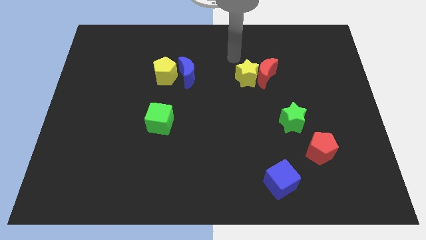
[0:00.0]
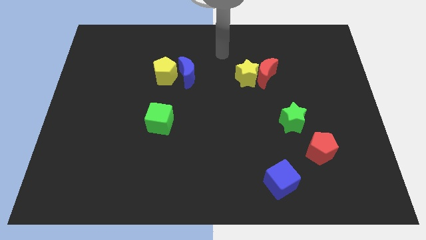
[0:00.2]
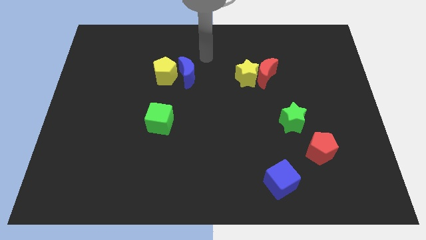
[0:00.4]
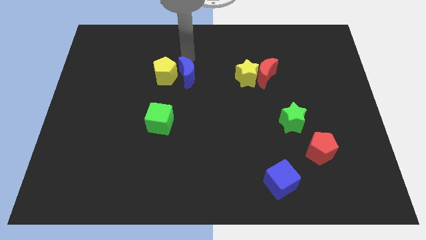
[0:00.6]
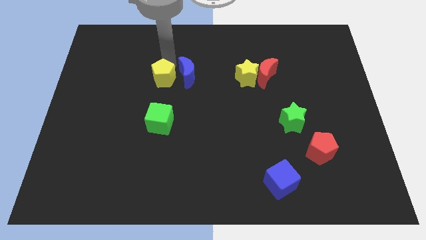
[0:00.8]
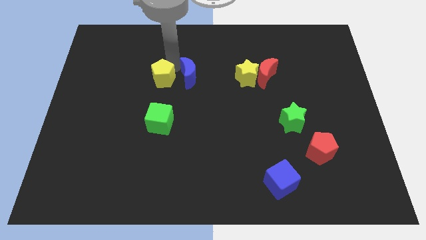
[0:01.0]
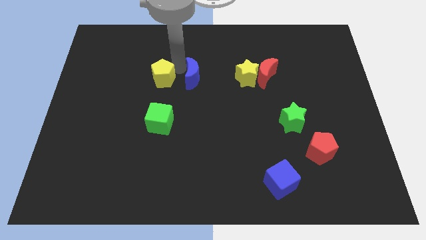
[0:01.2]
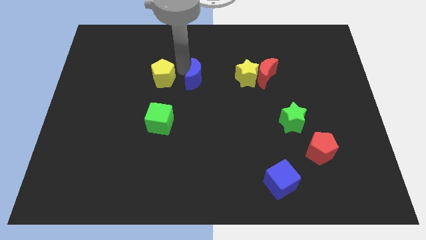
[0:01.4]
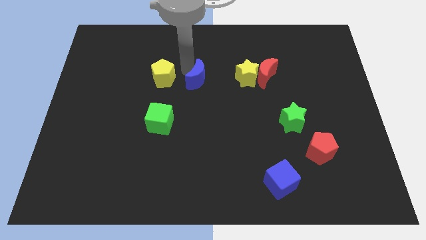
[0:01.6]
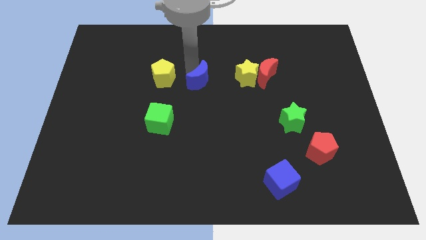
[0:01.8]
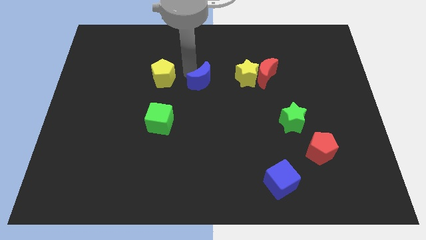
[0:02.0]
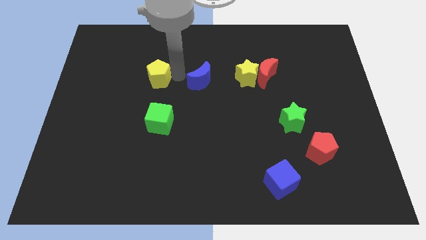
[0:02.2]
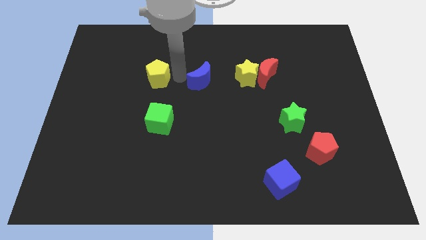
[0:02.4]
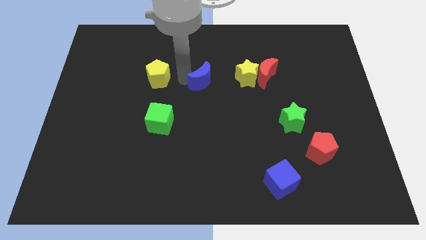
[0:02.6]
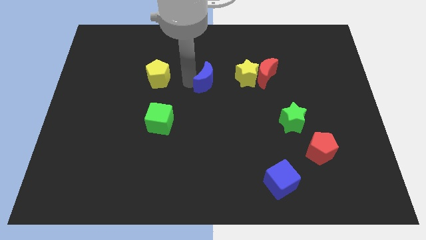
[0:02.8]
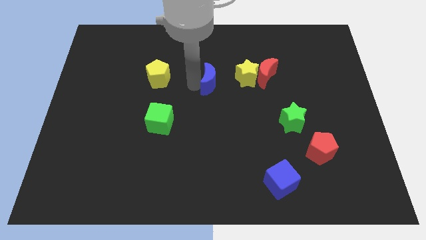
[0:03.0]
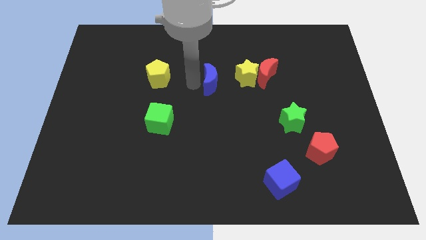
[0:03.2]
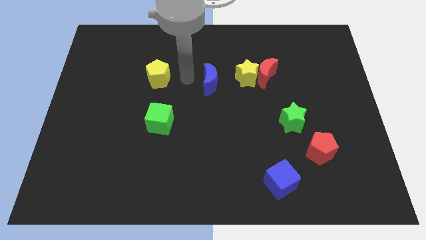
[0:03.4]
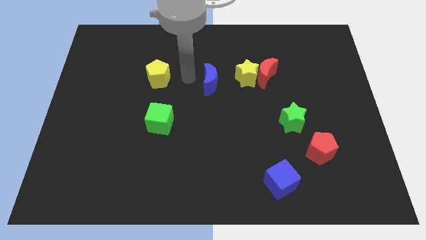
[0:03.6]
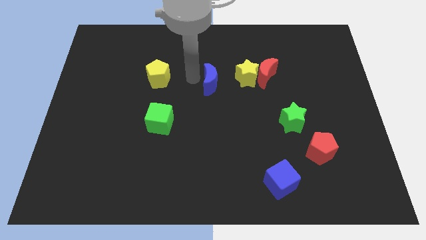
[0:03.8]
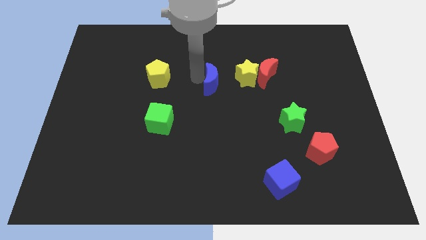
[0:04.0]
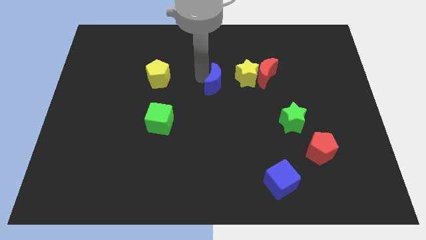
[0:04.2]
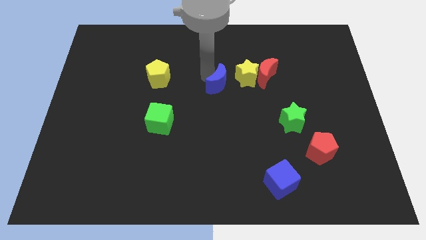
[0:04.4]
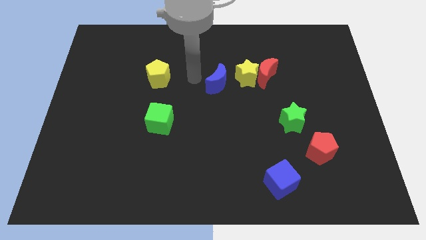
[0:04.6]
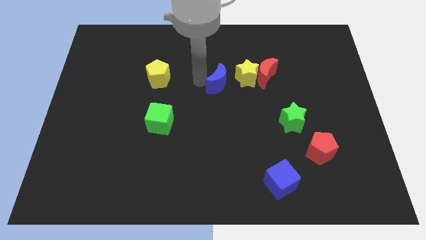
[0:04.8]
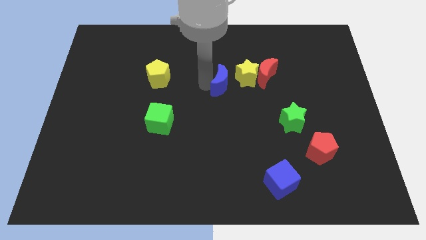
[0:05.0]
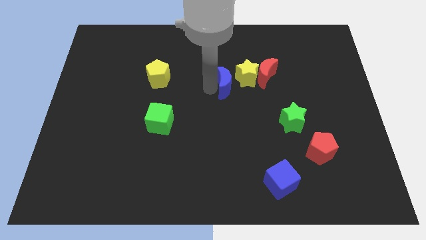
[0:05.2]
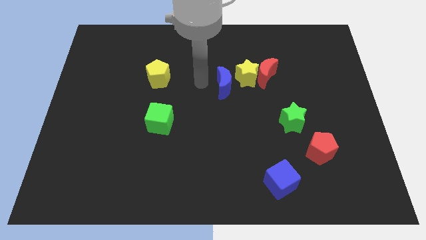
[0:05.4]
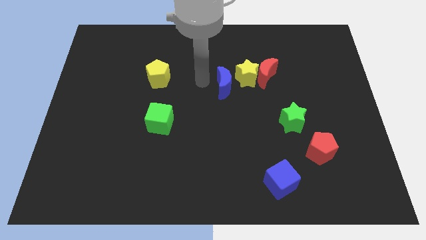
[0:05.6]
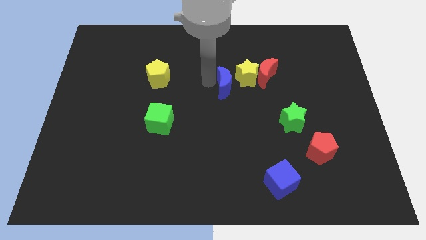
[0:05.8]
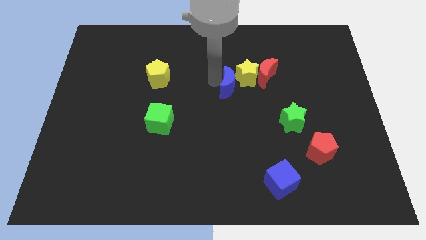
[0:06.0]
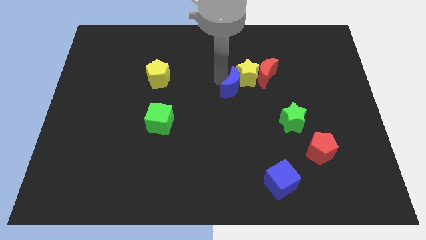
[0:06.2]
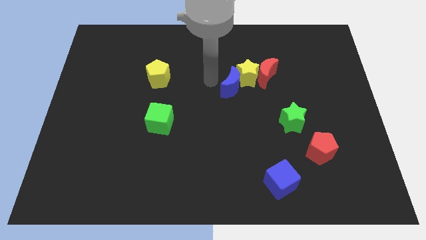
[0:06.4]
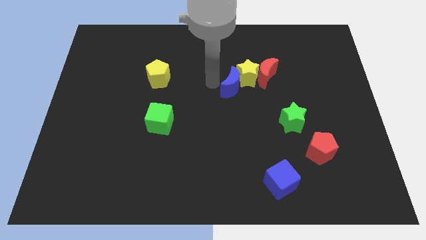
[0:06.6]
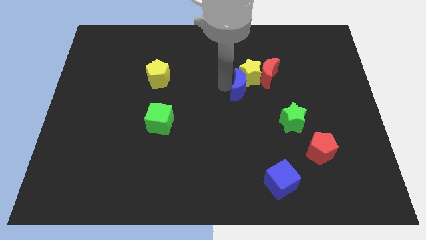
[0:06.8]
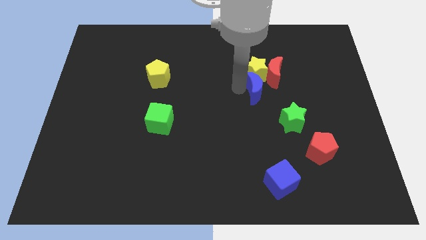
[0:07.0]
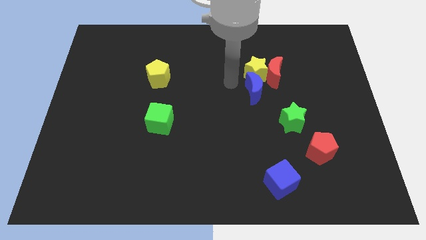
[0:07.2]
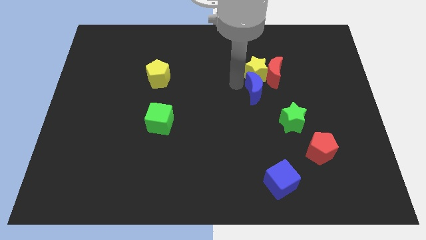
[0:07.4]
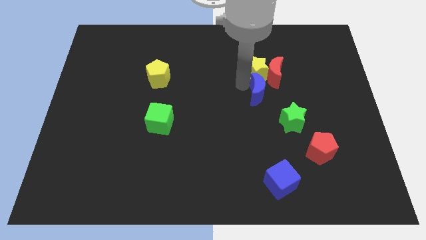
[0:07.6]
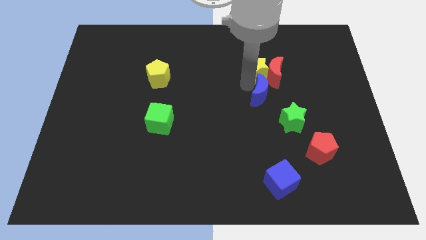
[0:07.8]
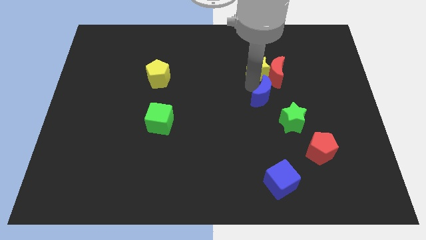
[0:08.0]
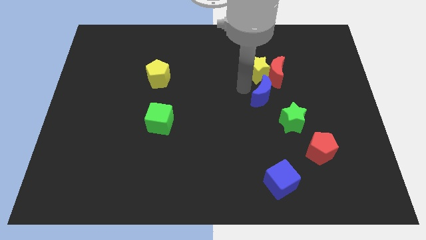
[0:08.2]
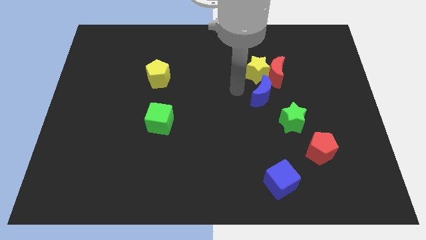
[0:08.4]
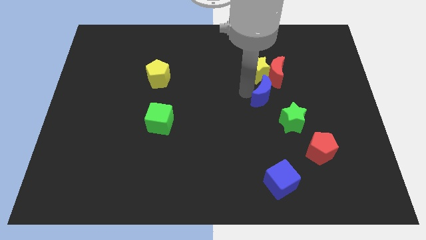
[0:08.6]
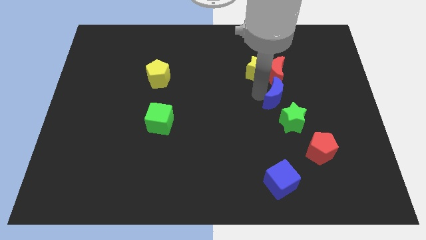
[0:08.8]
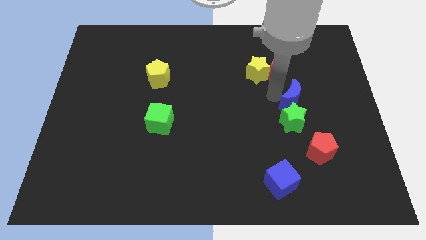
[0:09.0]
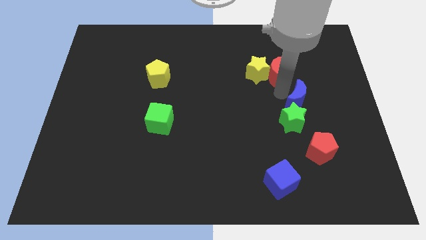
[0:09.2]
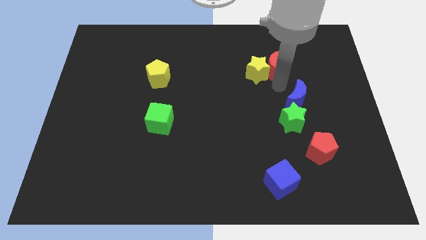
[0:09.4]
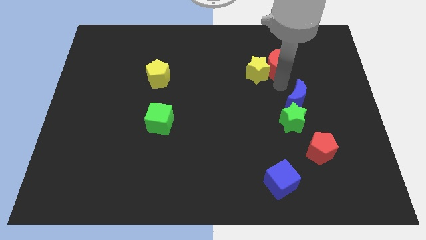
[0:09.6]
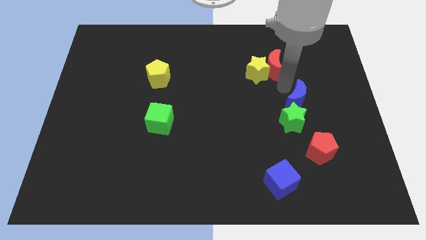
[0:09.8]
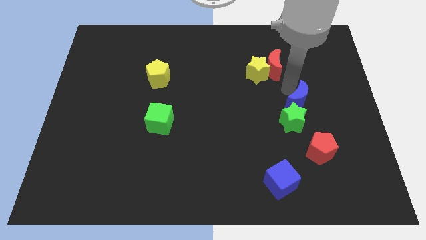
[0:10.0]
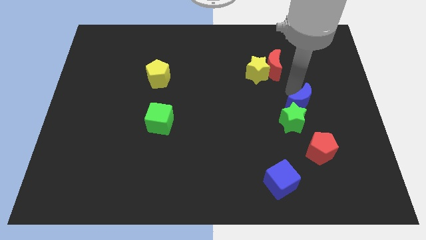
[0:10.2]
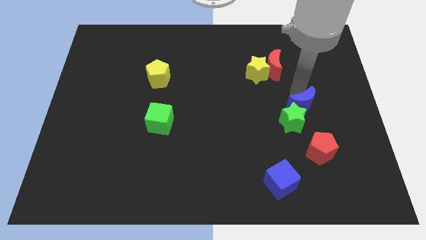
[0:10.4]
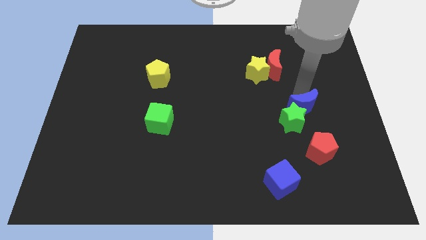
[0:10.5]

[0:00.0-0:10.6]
move the blue moon right of the green star

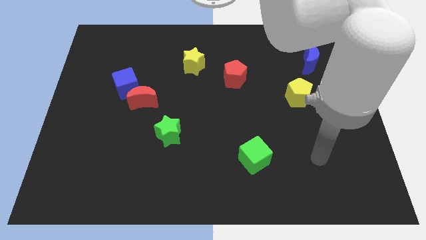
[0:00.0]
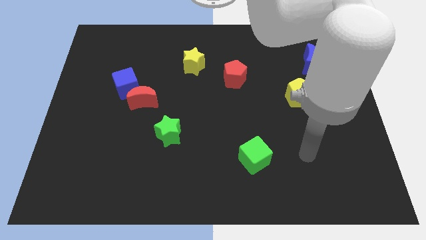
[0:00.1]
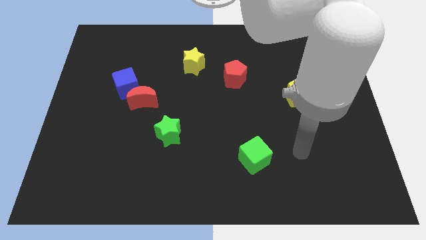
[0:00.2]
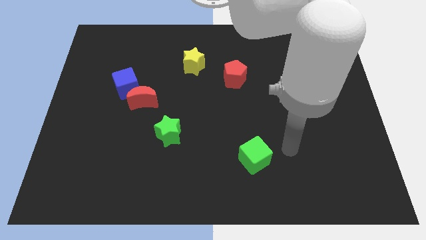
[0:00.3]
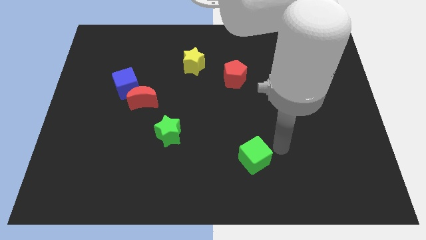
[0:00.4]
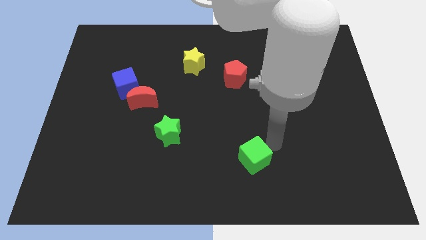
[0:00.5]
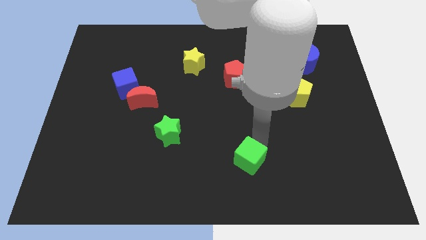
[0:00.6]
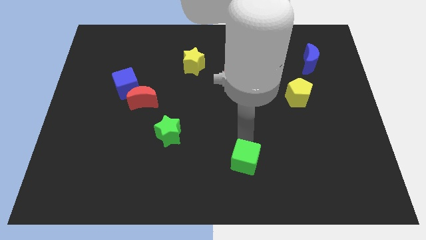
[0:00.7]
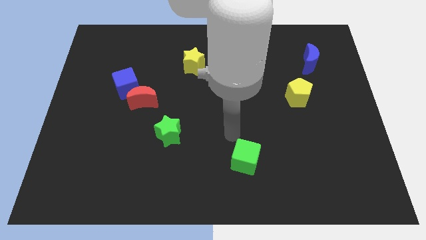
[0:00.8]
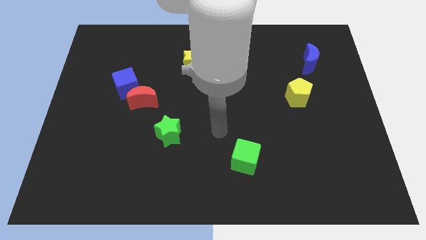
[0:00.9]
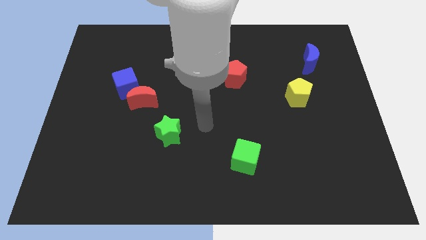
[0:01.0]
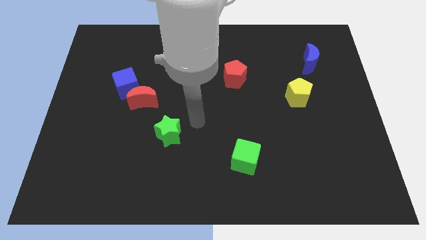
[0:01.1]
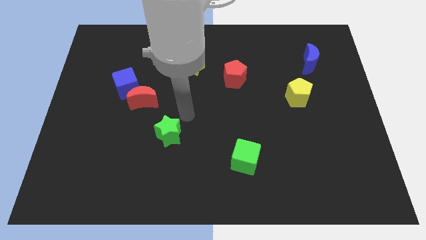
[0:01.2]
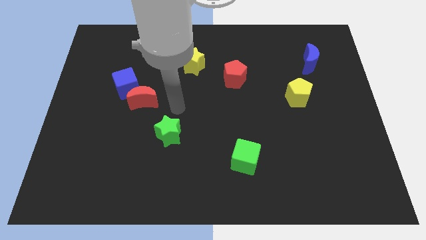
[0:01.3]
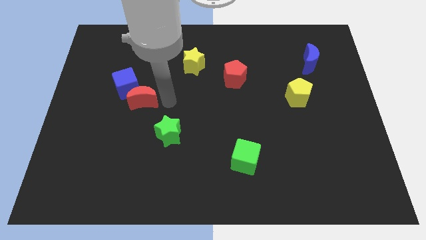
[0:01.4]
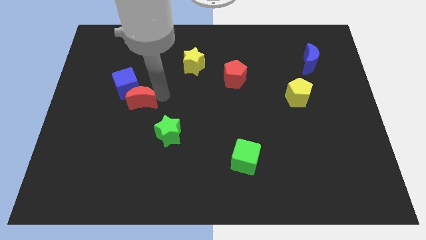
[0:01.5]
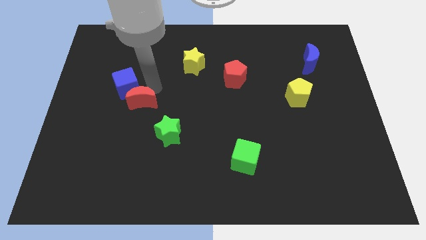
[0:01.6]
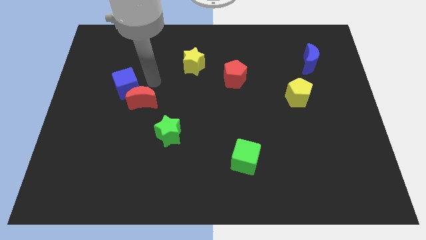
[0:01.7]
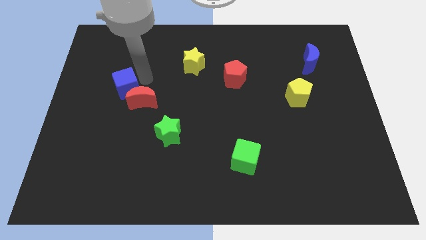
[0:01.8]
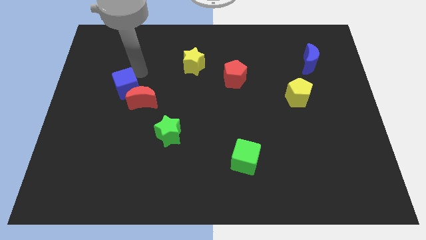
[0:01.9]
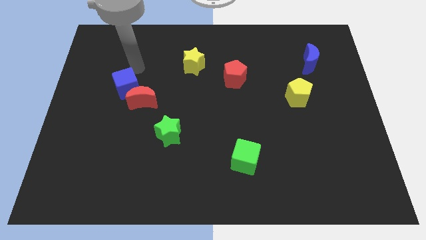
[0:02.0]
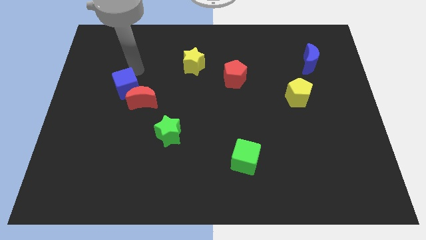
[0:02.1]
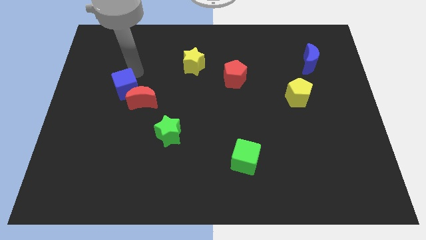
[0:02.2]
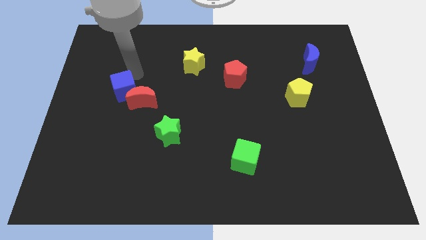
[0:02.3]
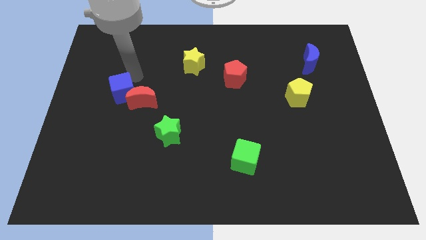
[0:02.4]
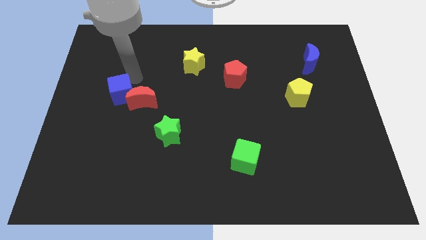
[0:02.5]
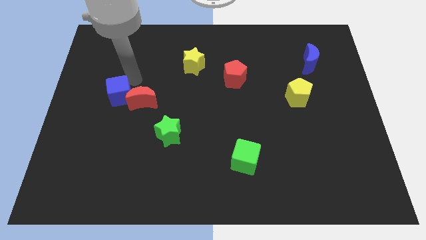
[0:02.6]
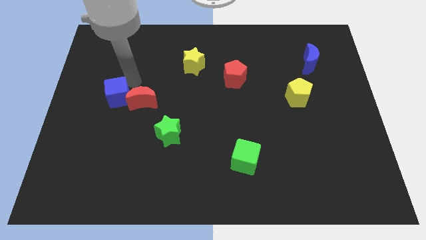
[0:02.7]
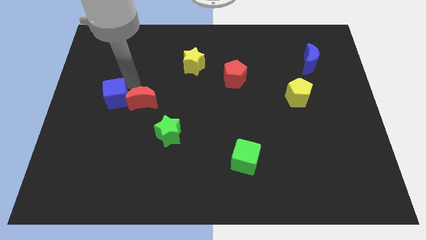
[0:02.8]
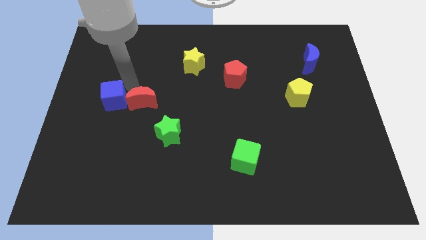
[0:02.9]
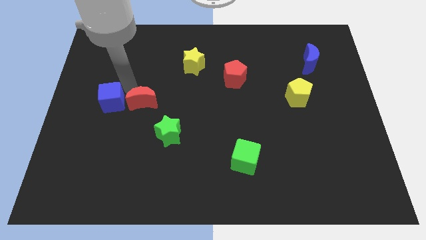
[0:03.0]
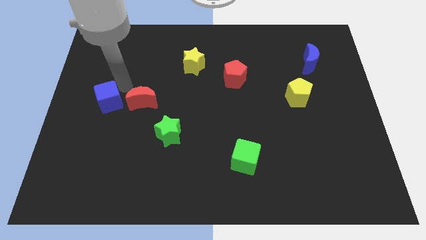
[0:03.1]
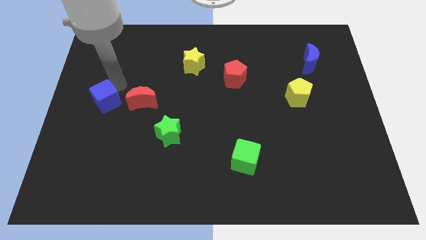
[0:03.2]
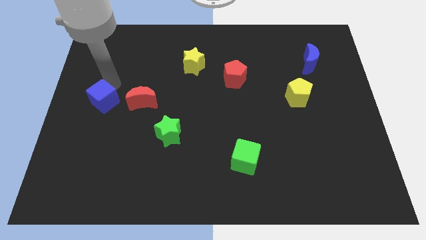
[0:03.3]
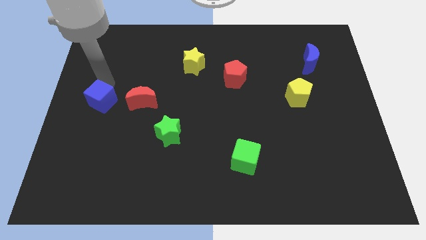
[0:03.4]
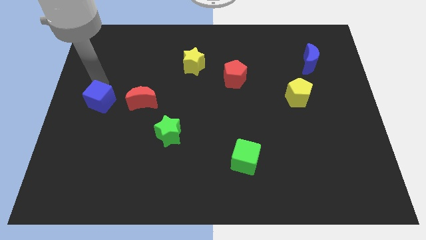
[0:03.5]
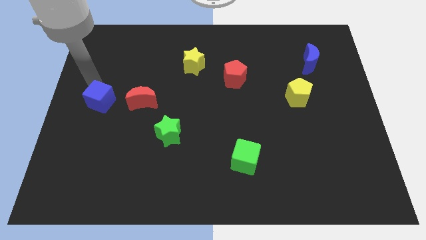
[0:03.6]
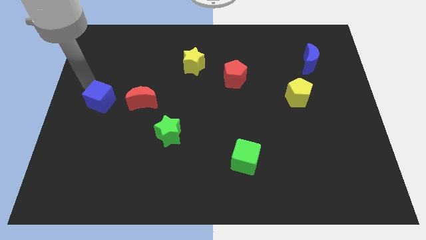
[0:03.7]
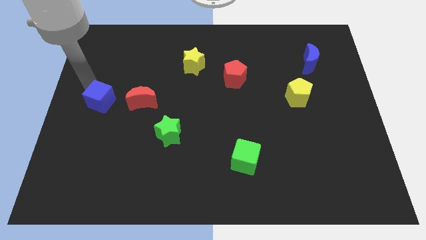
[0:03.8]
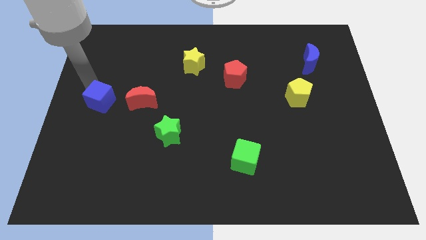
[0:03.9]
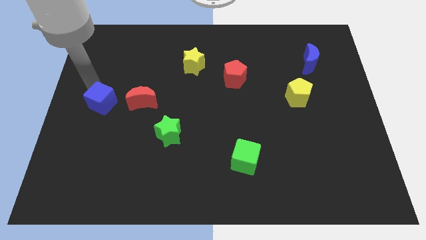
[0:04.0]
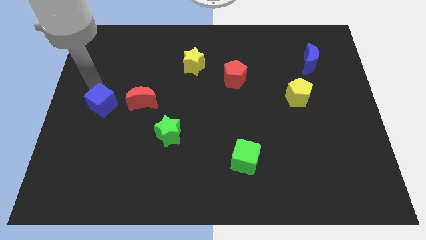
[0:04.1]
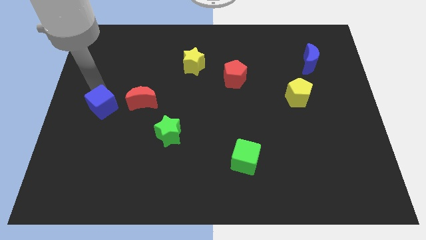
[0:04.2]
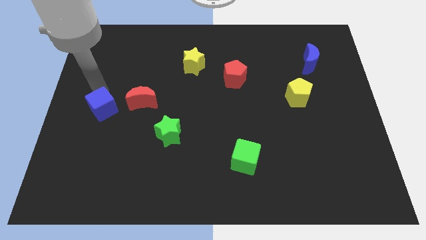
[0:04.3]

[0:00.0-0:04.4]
move the blue cube to the bottom left side of the red moon
